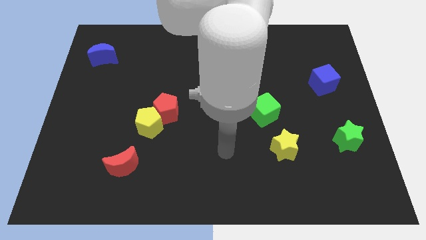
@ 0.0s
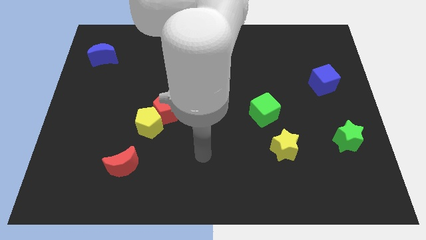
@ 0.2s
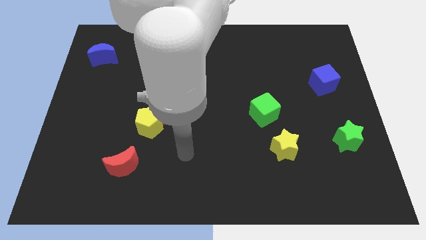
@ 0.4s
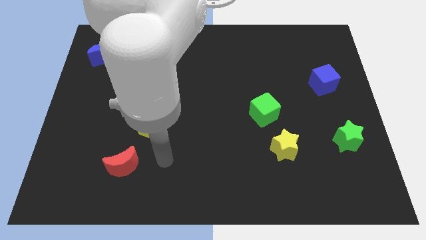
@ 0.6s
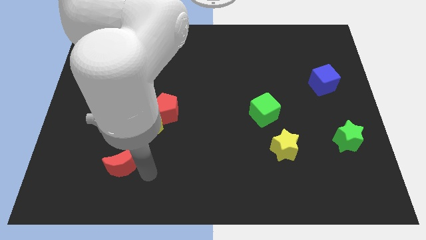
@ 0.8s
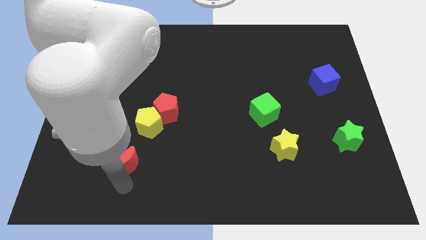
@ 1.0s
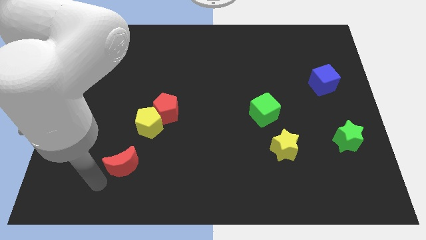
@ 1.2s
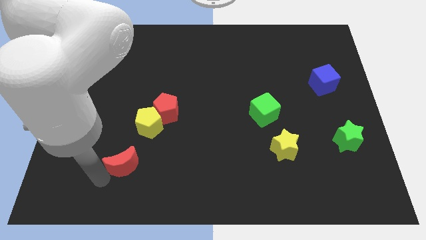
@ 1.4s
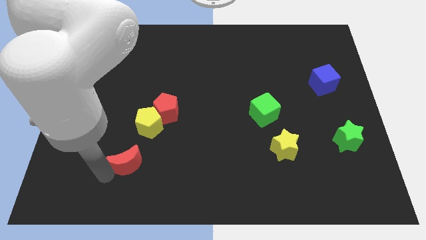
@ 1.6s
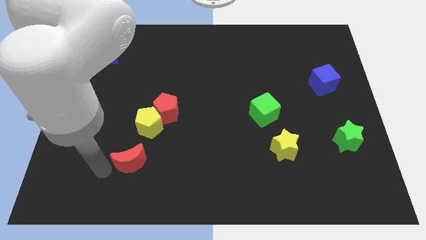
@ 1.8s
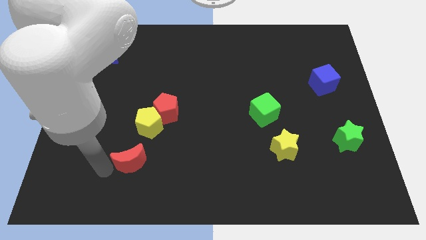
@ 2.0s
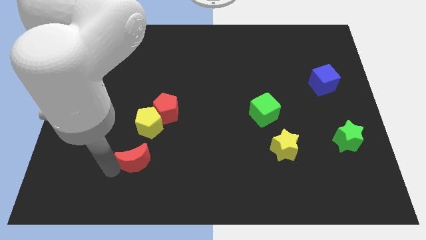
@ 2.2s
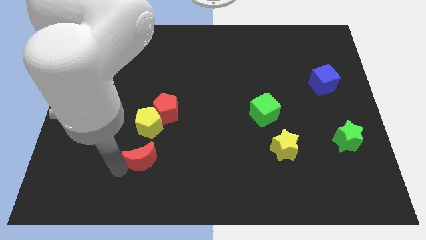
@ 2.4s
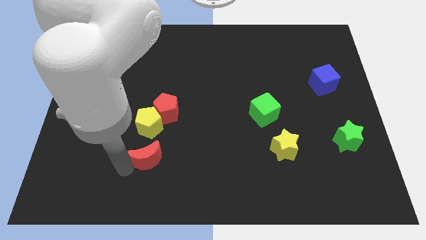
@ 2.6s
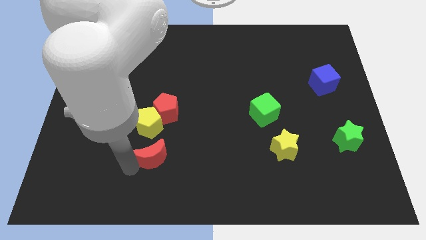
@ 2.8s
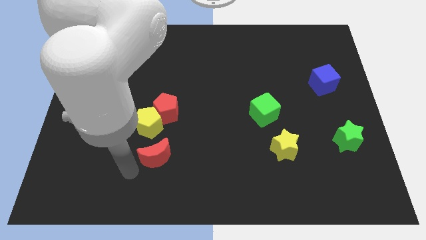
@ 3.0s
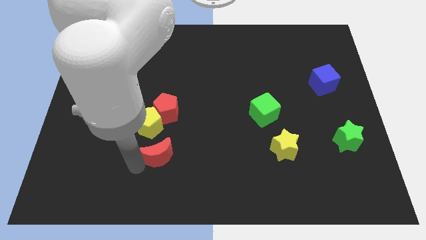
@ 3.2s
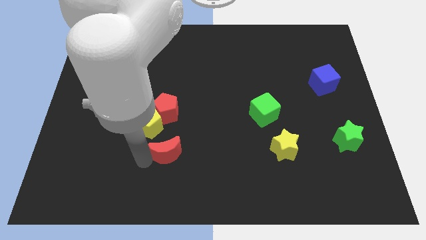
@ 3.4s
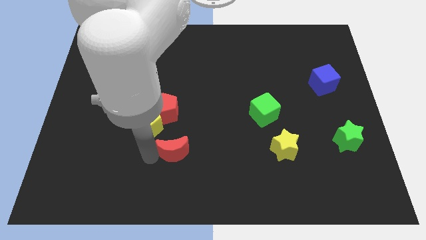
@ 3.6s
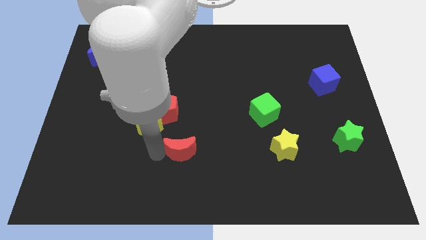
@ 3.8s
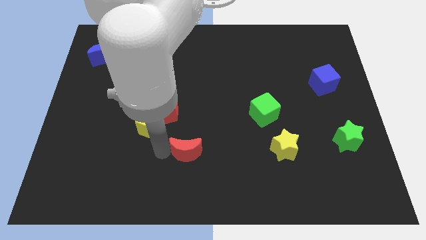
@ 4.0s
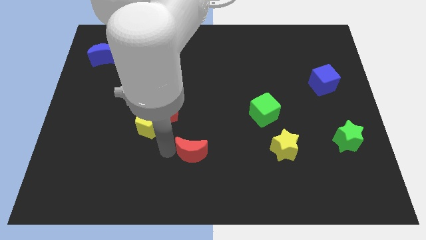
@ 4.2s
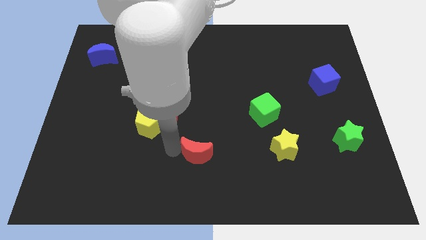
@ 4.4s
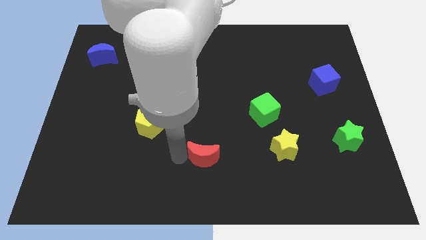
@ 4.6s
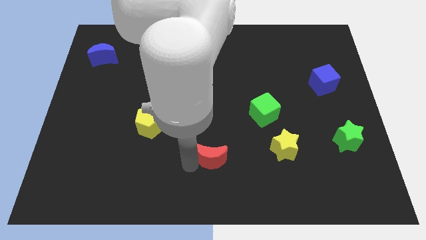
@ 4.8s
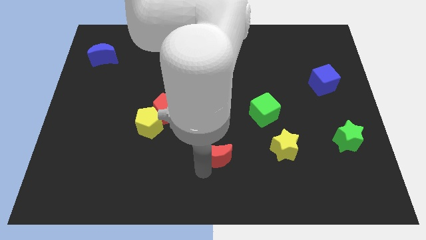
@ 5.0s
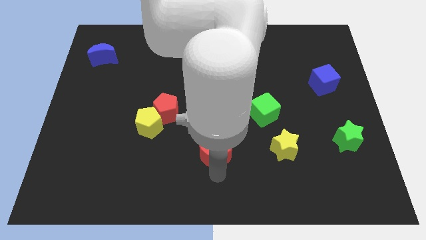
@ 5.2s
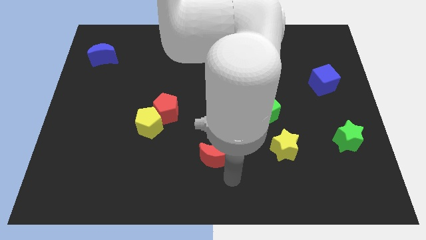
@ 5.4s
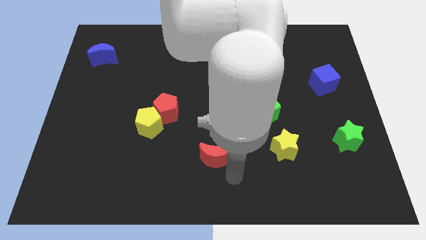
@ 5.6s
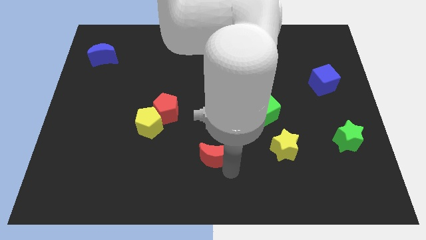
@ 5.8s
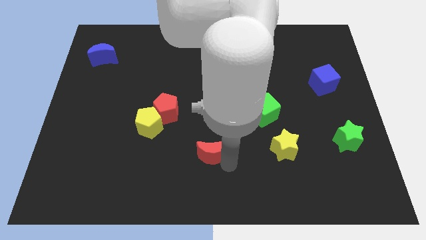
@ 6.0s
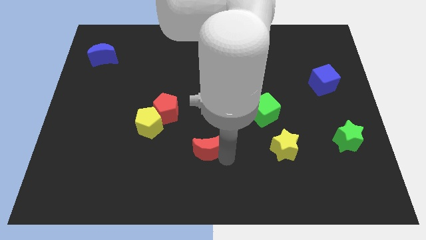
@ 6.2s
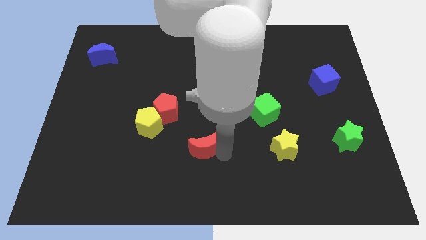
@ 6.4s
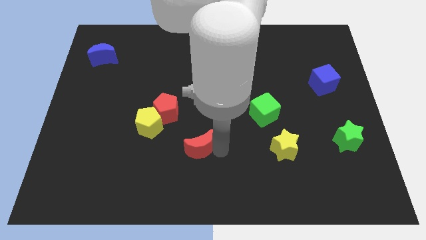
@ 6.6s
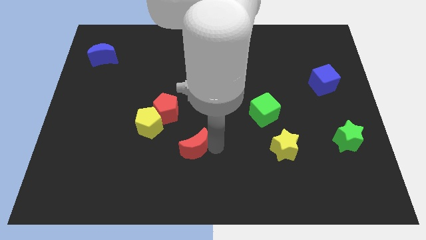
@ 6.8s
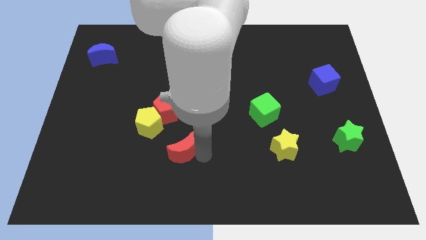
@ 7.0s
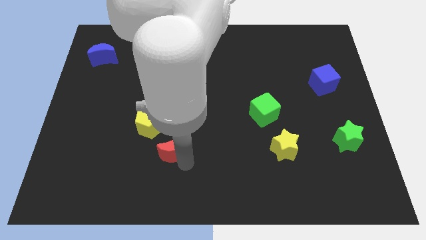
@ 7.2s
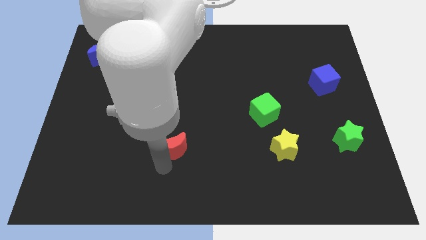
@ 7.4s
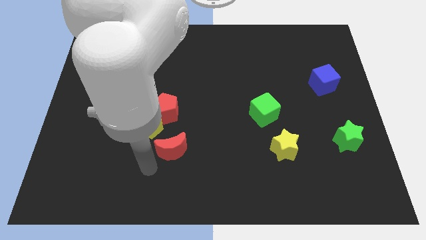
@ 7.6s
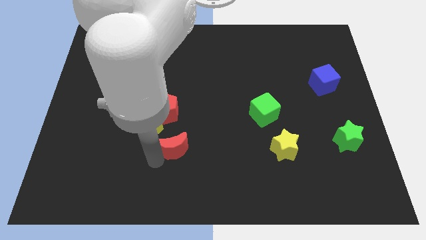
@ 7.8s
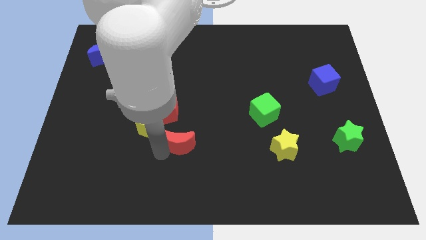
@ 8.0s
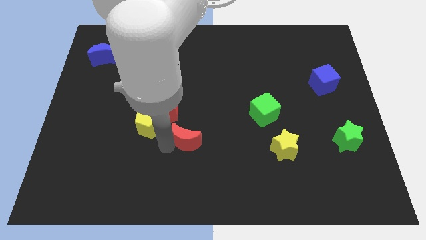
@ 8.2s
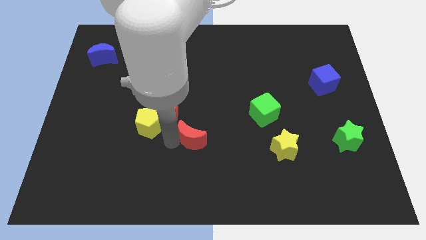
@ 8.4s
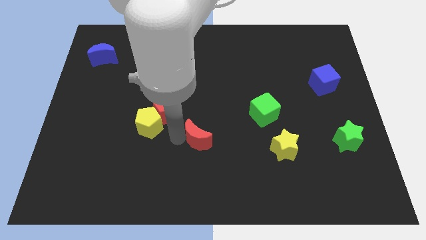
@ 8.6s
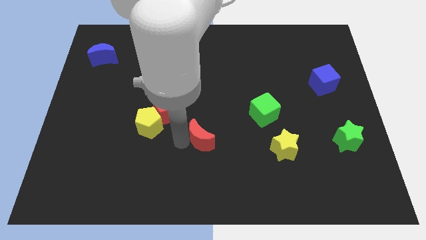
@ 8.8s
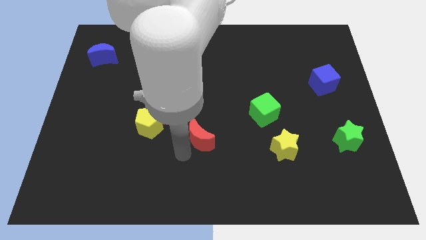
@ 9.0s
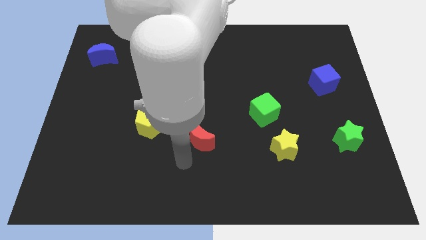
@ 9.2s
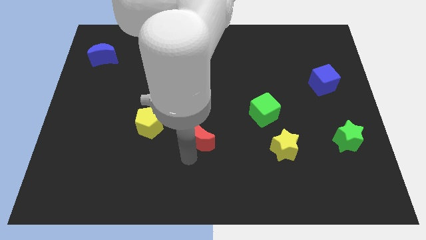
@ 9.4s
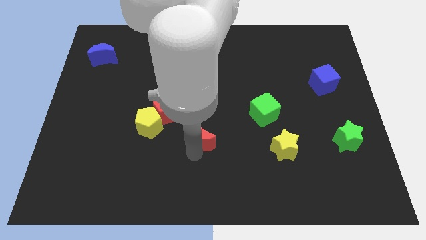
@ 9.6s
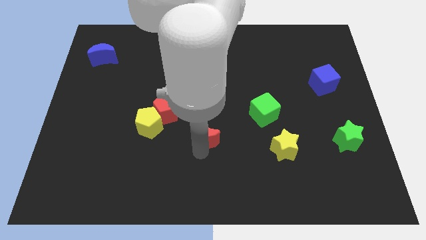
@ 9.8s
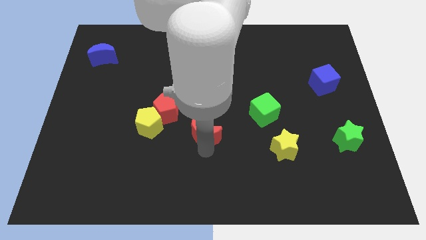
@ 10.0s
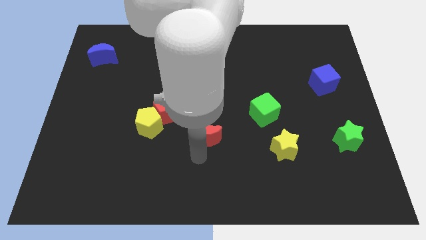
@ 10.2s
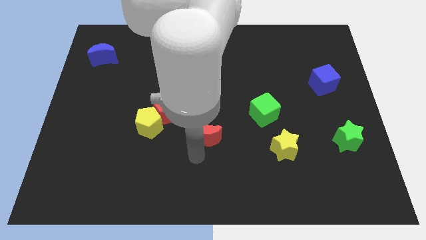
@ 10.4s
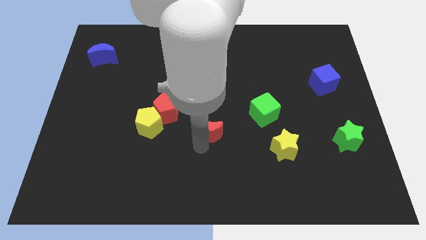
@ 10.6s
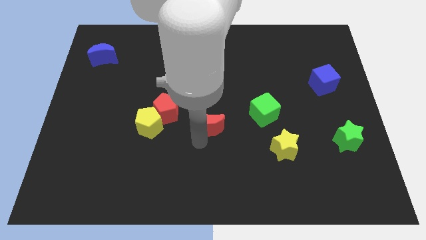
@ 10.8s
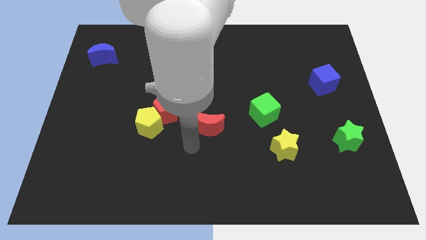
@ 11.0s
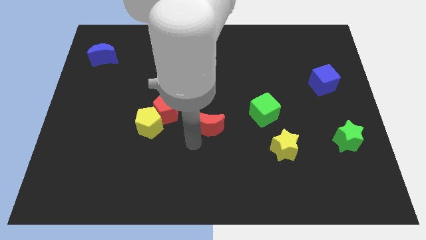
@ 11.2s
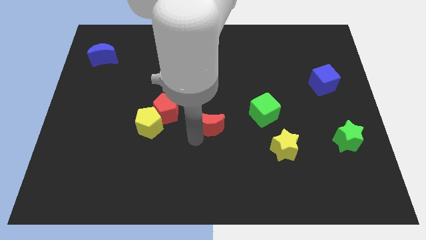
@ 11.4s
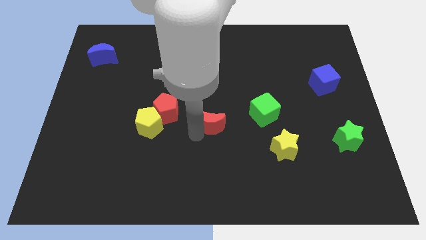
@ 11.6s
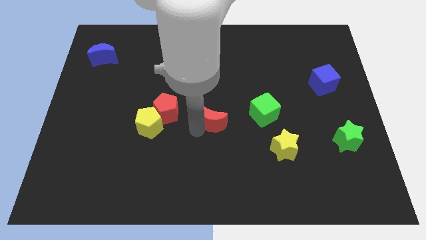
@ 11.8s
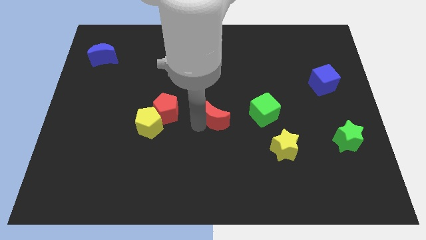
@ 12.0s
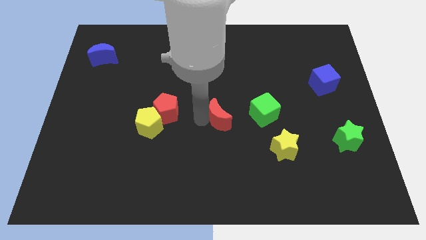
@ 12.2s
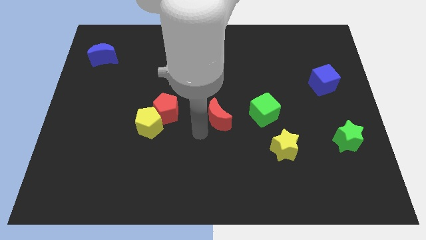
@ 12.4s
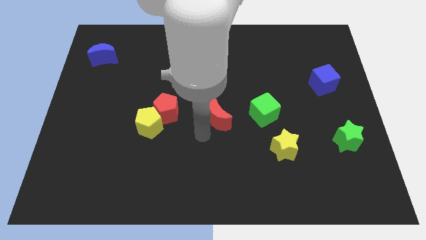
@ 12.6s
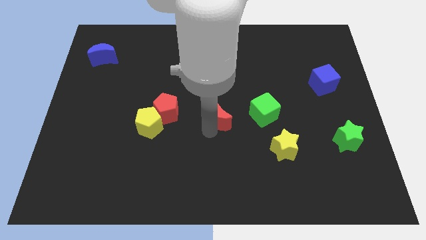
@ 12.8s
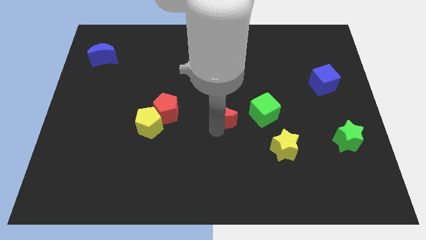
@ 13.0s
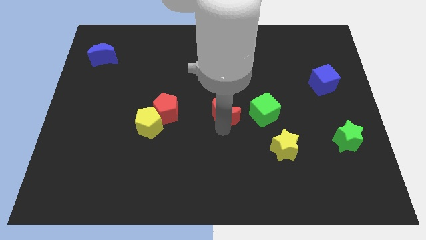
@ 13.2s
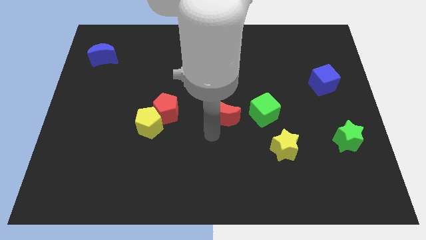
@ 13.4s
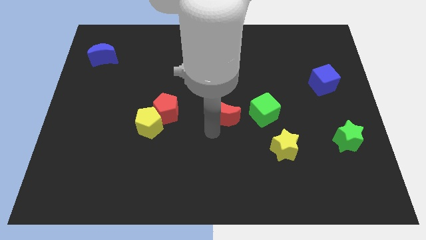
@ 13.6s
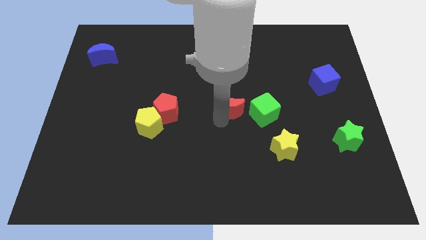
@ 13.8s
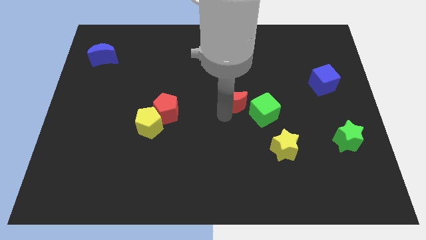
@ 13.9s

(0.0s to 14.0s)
put the red moon diagonally up and to the left of the green cube
